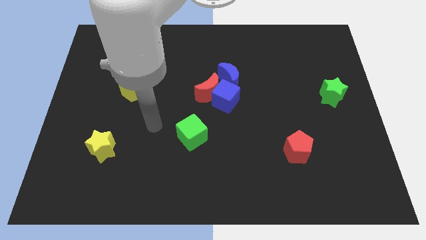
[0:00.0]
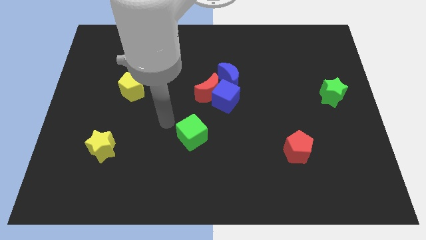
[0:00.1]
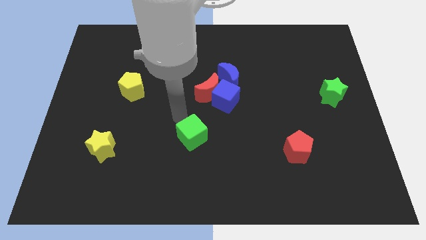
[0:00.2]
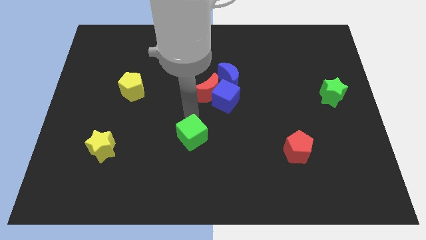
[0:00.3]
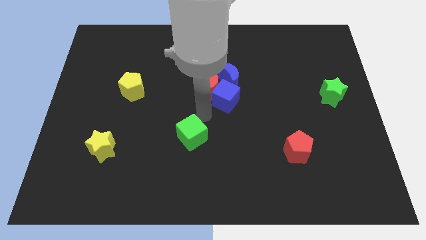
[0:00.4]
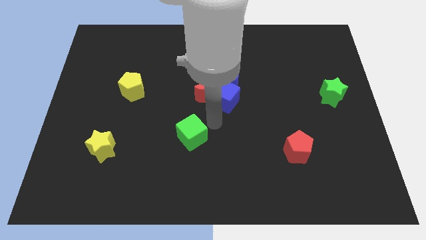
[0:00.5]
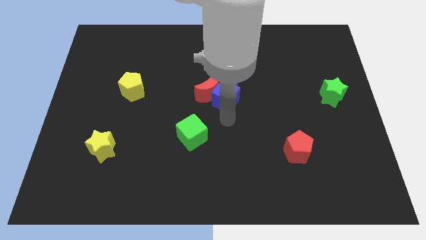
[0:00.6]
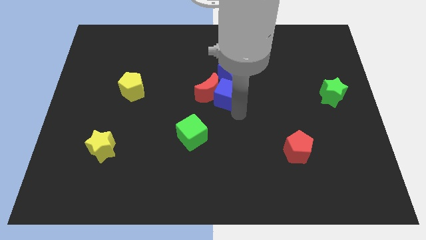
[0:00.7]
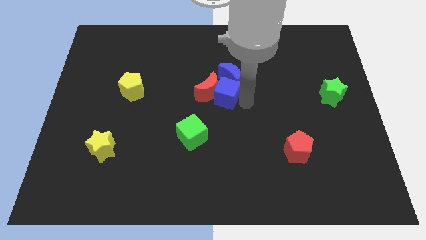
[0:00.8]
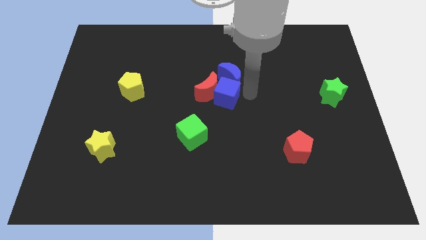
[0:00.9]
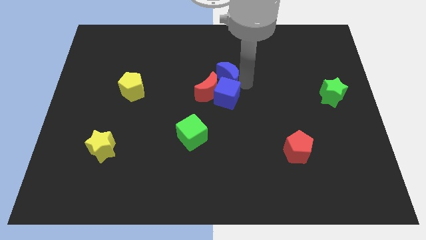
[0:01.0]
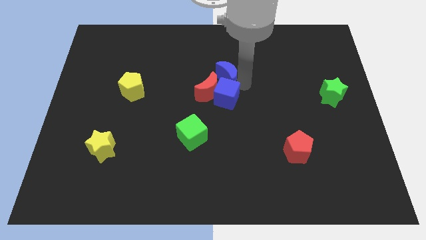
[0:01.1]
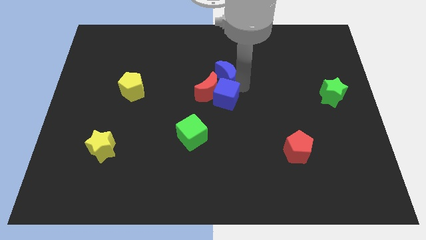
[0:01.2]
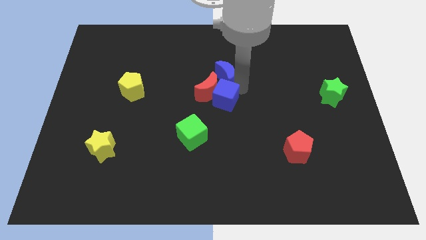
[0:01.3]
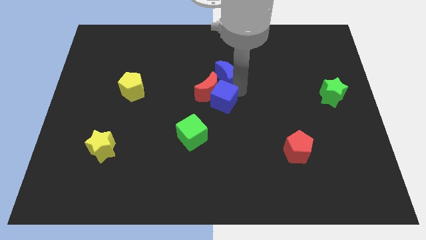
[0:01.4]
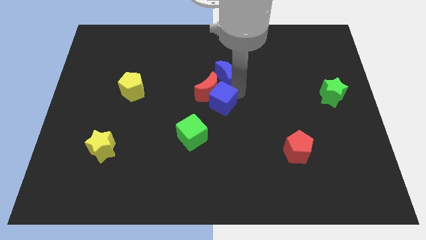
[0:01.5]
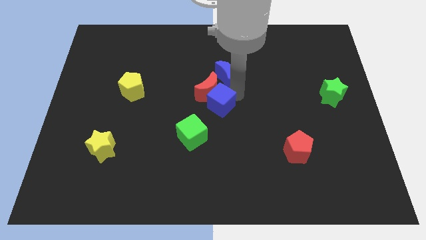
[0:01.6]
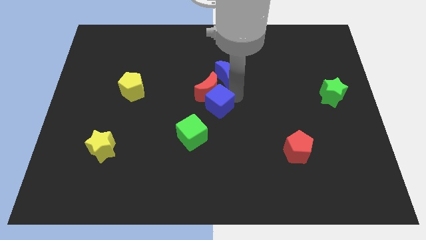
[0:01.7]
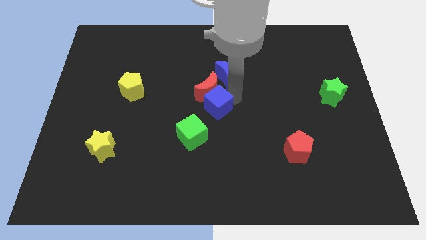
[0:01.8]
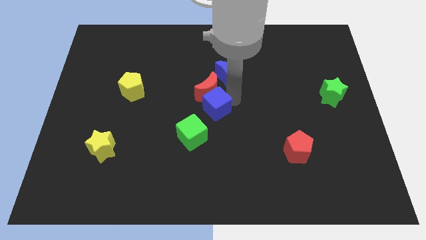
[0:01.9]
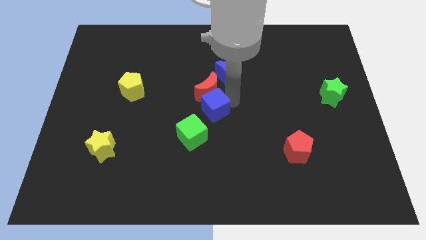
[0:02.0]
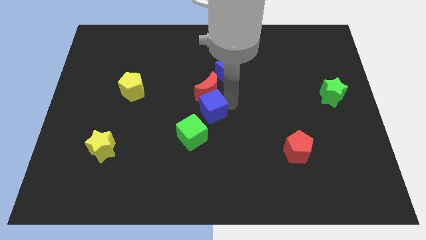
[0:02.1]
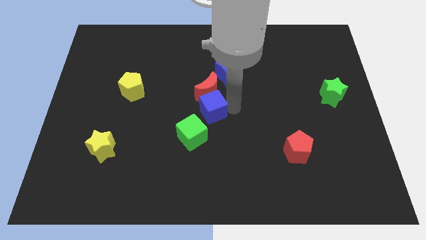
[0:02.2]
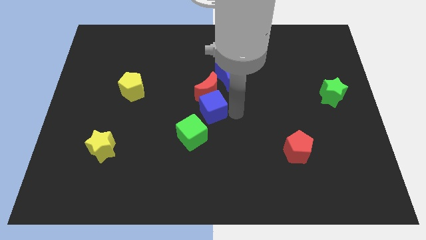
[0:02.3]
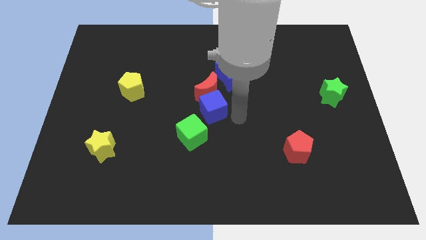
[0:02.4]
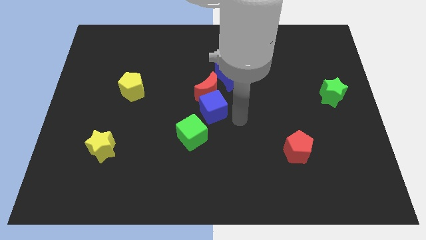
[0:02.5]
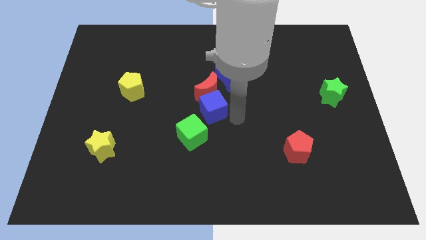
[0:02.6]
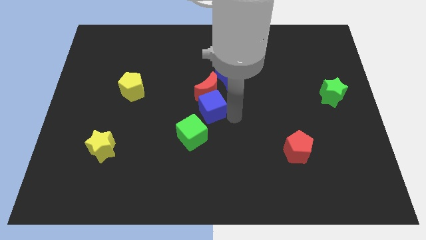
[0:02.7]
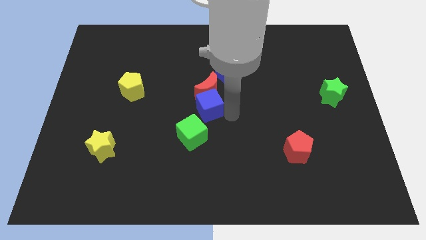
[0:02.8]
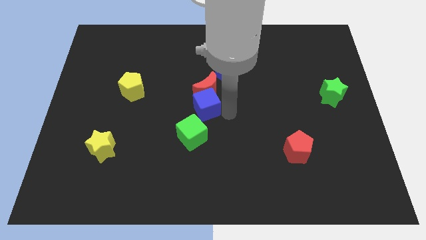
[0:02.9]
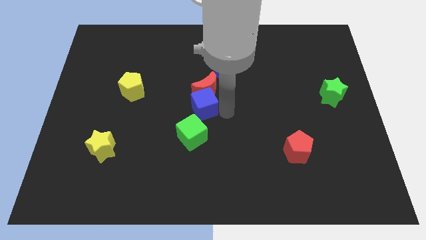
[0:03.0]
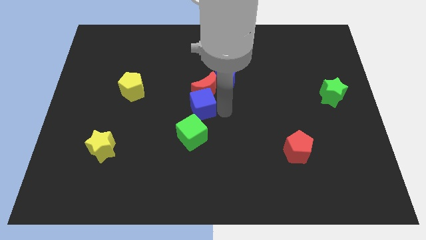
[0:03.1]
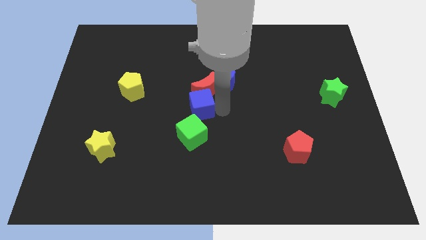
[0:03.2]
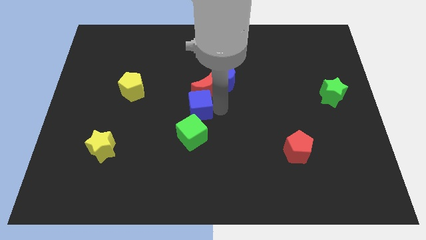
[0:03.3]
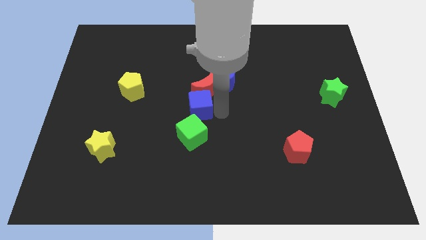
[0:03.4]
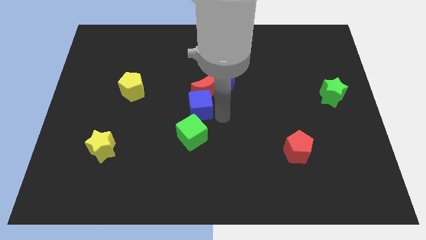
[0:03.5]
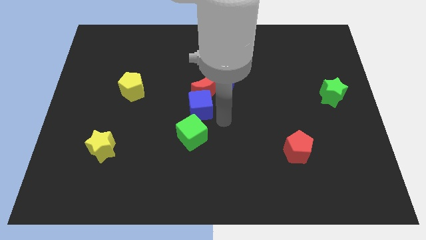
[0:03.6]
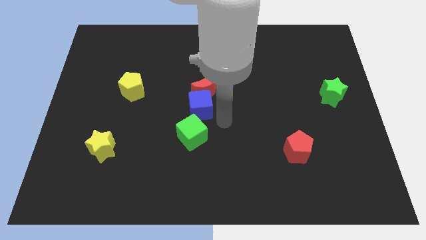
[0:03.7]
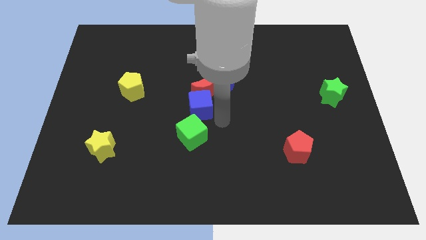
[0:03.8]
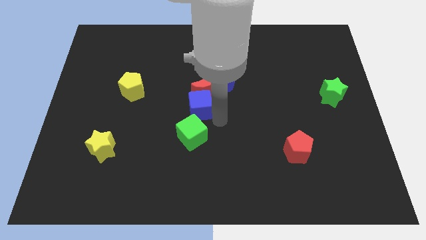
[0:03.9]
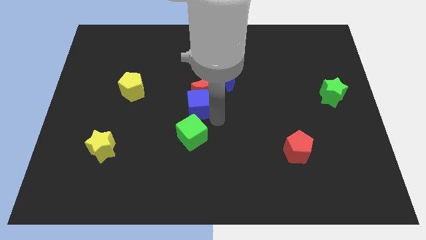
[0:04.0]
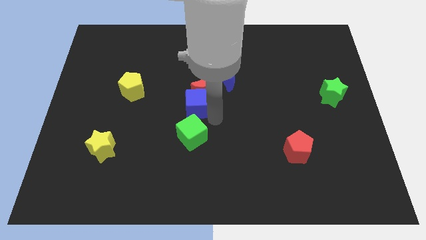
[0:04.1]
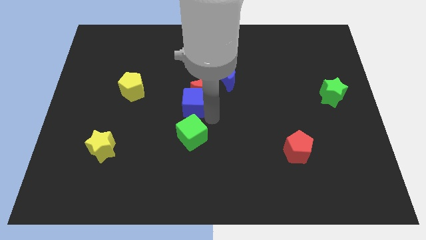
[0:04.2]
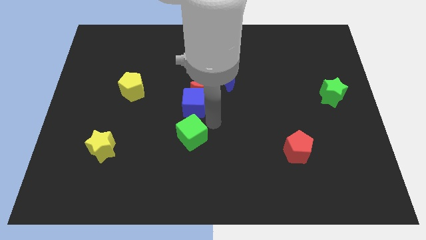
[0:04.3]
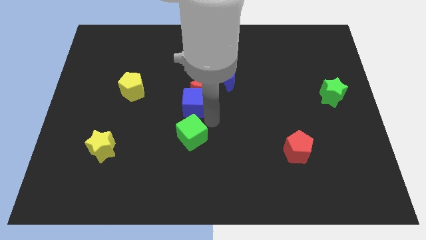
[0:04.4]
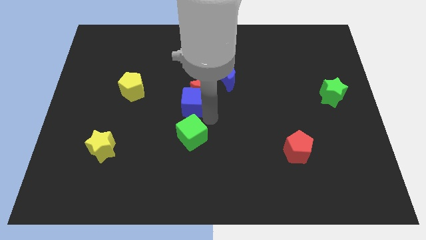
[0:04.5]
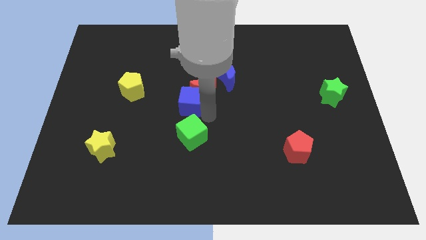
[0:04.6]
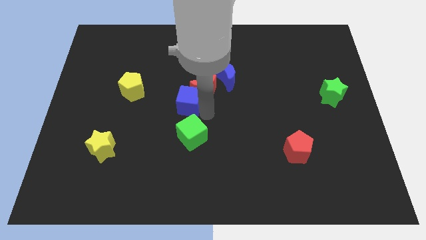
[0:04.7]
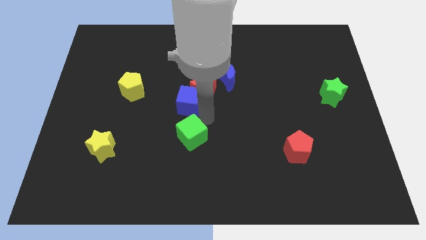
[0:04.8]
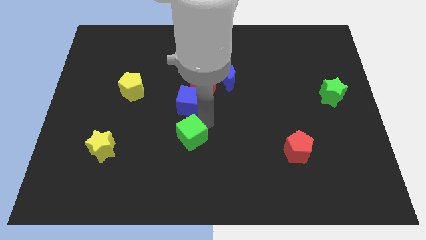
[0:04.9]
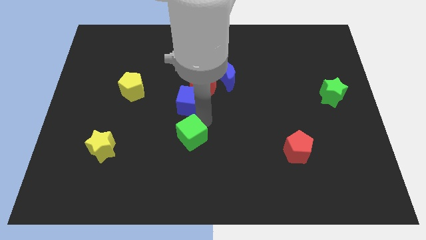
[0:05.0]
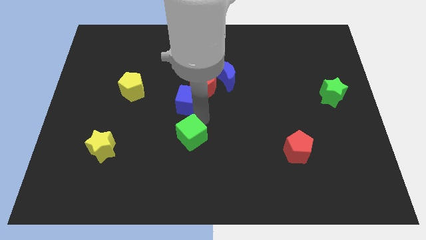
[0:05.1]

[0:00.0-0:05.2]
push the blue cube just right of the yellow pentagon
